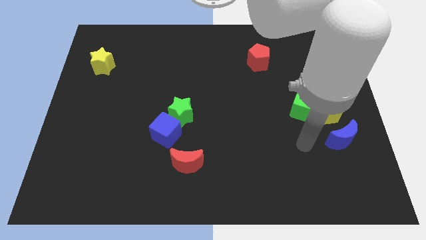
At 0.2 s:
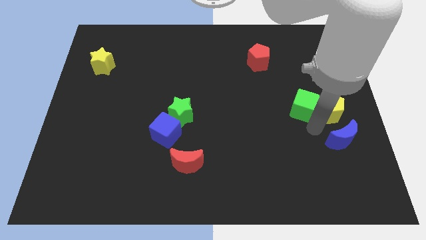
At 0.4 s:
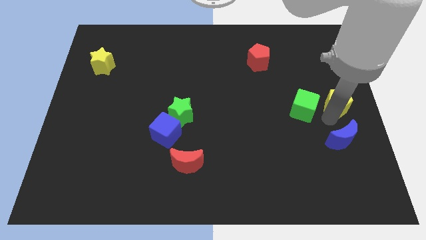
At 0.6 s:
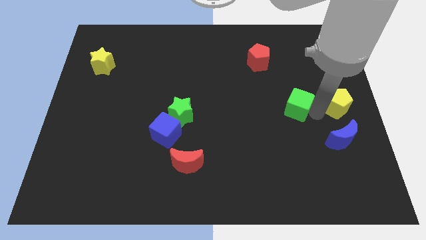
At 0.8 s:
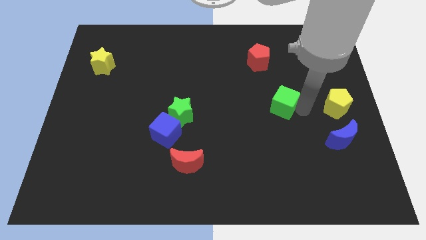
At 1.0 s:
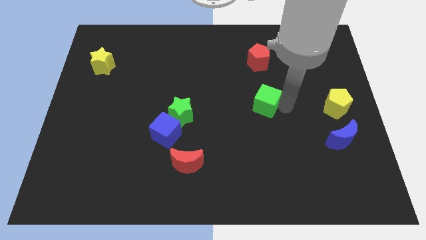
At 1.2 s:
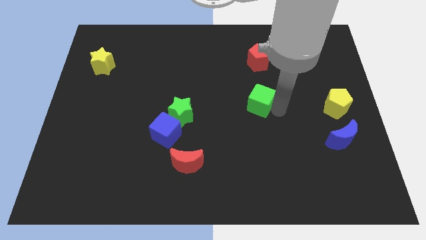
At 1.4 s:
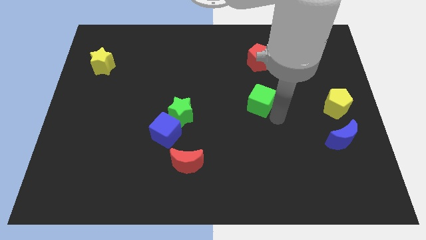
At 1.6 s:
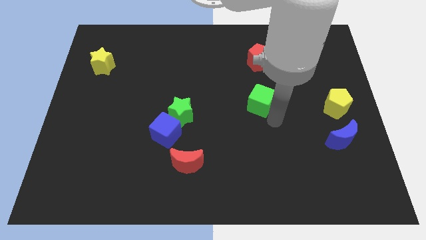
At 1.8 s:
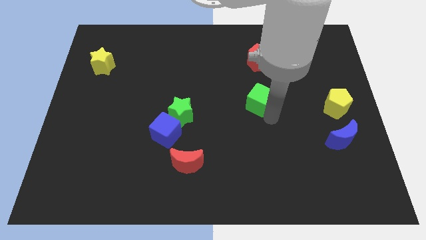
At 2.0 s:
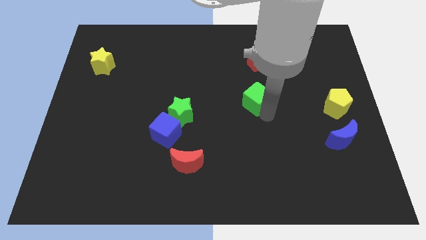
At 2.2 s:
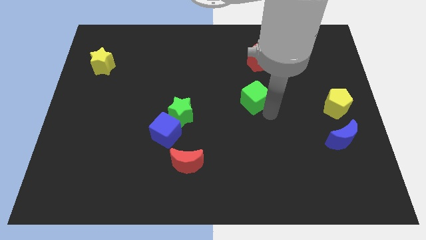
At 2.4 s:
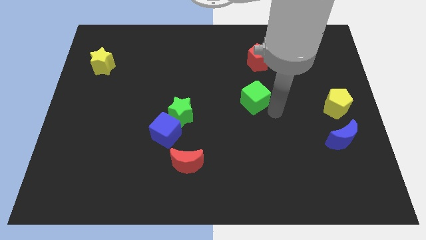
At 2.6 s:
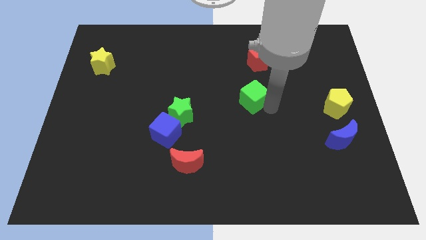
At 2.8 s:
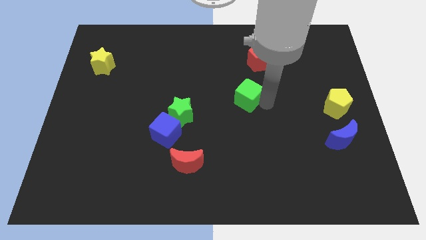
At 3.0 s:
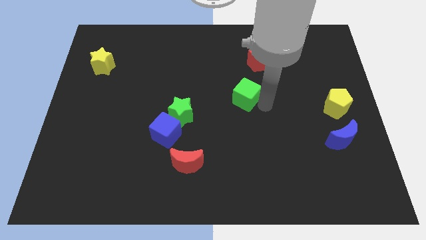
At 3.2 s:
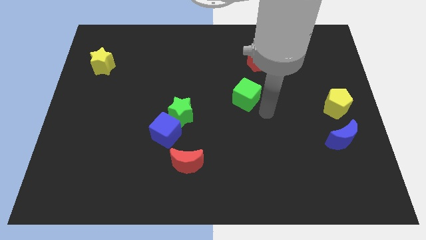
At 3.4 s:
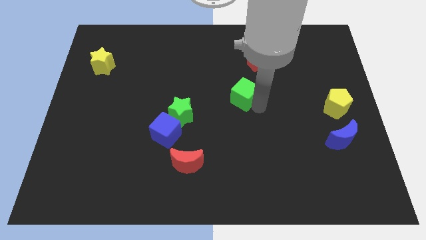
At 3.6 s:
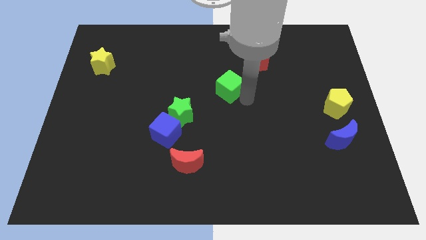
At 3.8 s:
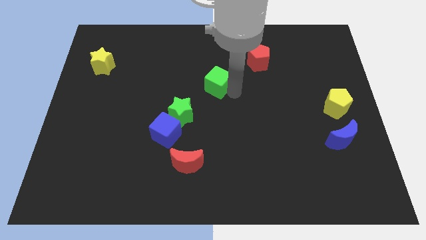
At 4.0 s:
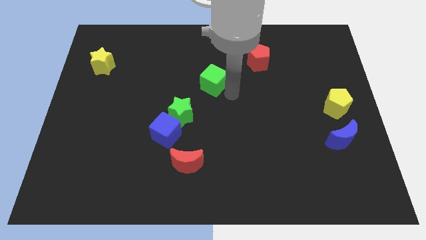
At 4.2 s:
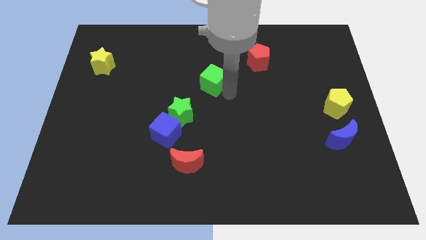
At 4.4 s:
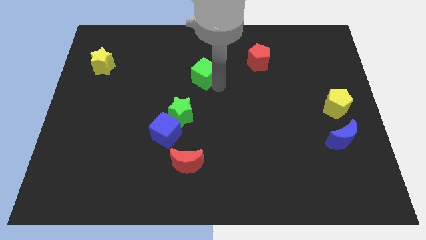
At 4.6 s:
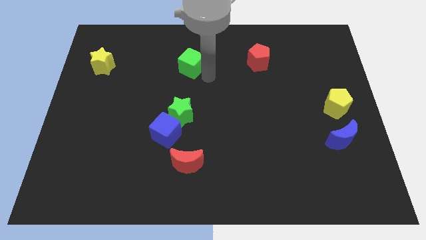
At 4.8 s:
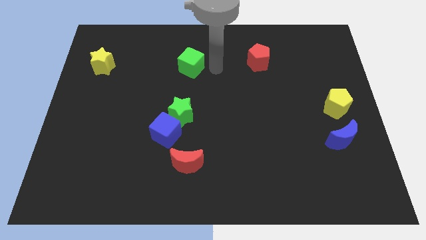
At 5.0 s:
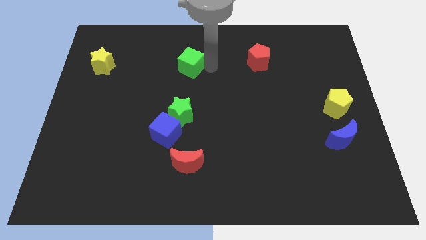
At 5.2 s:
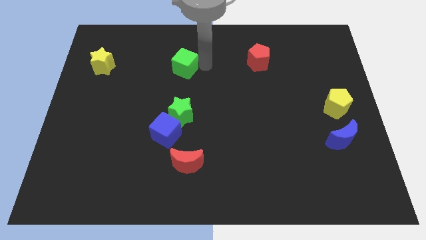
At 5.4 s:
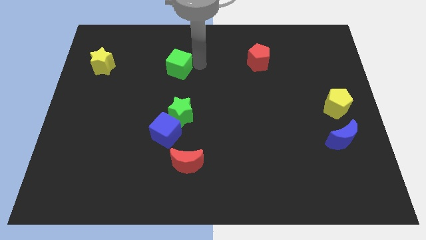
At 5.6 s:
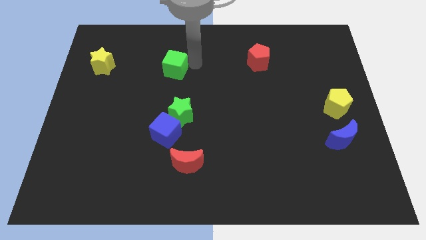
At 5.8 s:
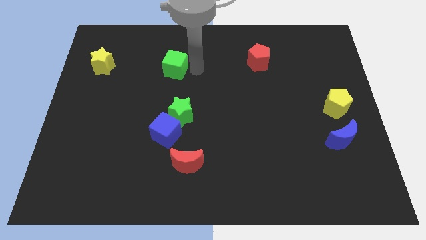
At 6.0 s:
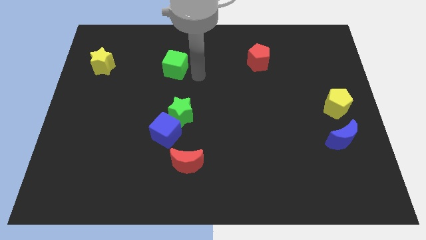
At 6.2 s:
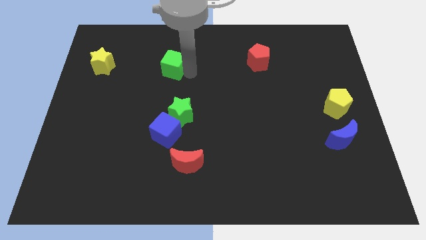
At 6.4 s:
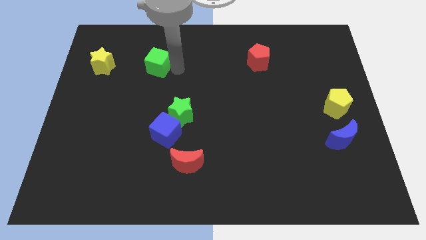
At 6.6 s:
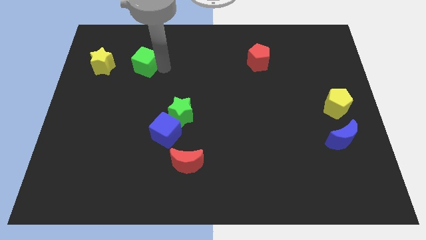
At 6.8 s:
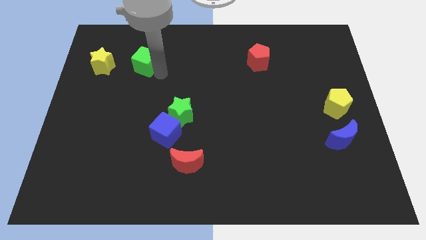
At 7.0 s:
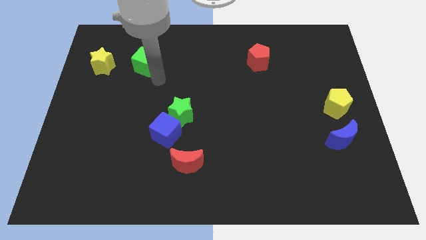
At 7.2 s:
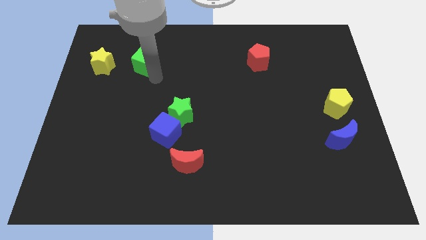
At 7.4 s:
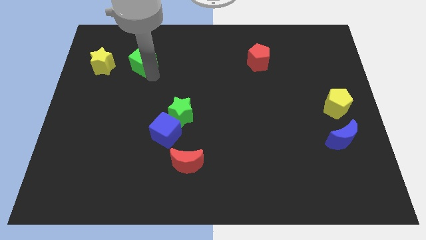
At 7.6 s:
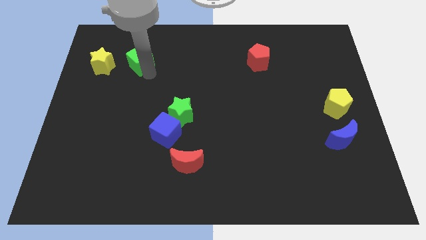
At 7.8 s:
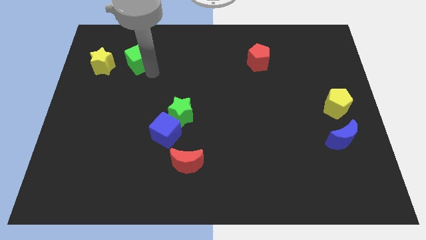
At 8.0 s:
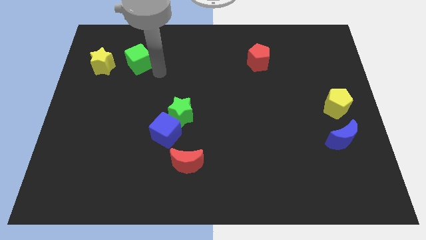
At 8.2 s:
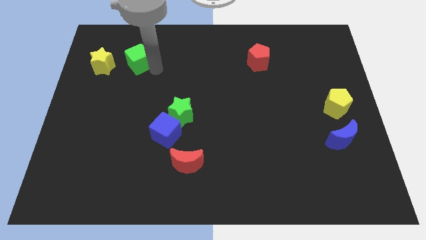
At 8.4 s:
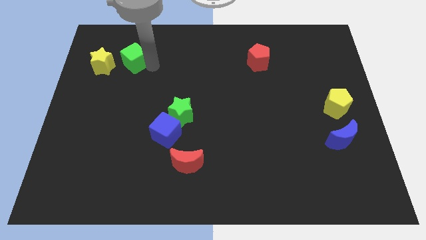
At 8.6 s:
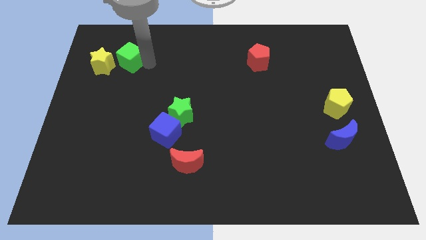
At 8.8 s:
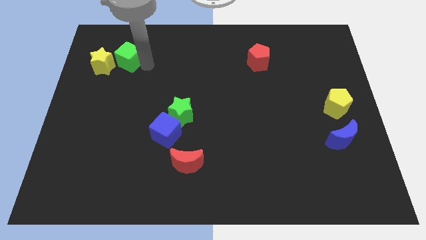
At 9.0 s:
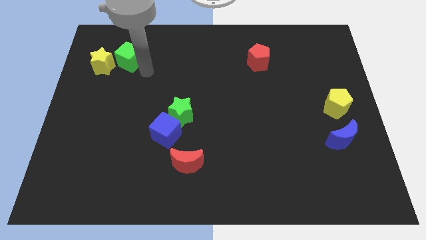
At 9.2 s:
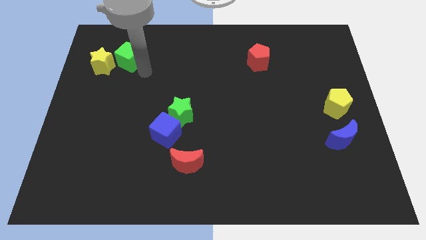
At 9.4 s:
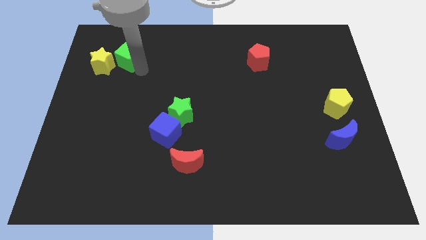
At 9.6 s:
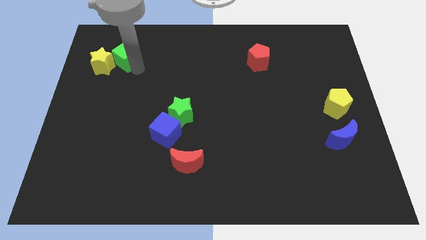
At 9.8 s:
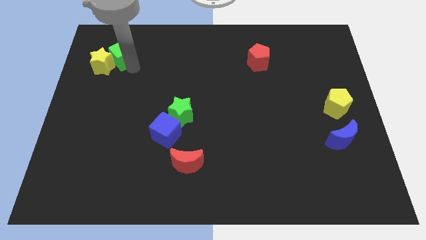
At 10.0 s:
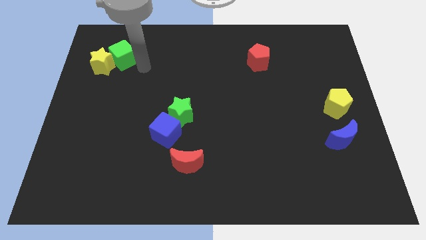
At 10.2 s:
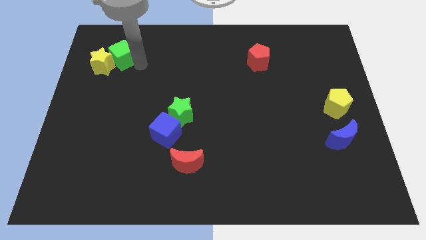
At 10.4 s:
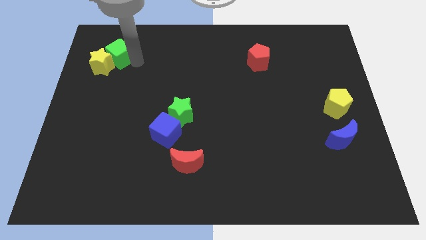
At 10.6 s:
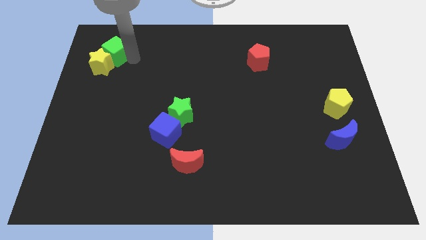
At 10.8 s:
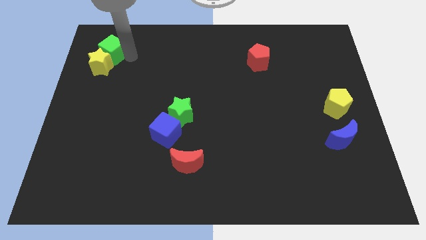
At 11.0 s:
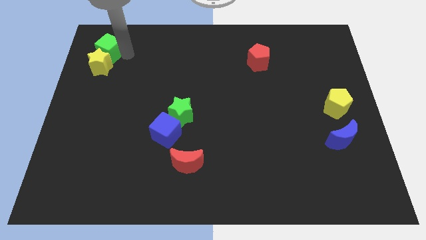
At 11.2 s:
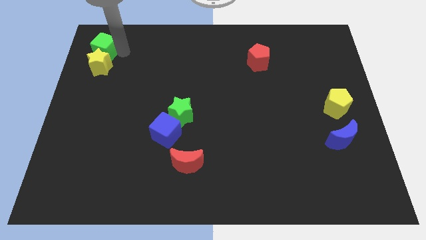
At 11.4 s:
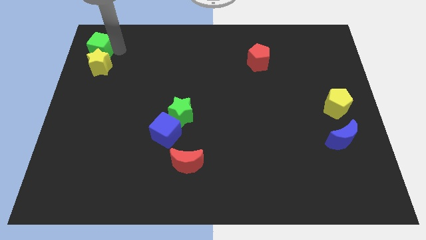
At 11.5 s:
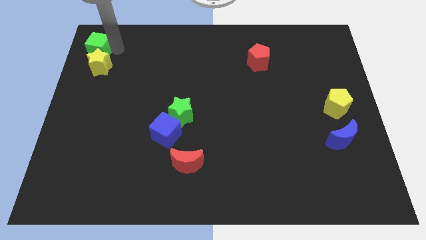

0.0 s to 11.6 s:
slide the green cube to the top left
